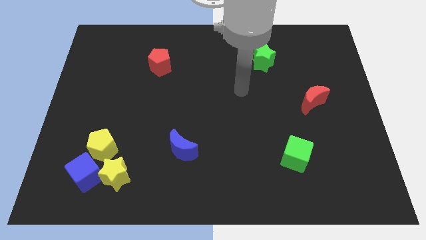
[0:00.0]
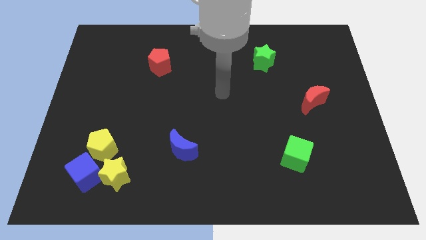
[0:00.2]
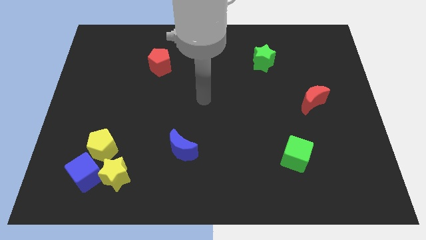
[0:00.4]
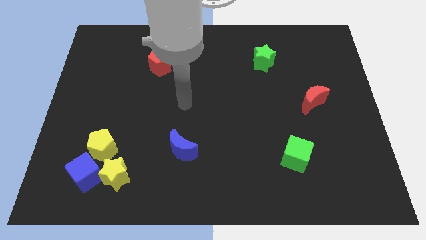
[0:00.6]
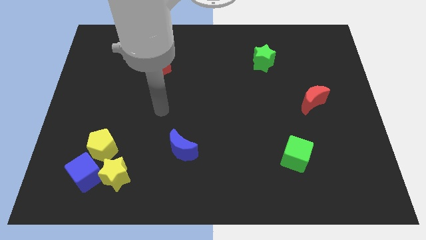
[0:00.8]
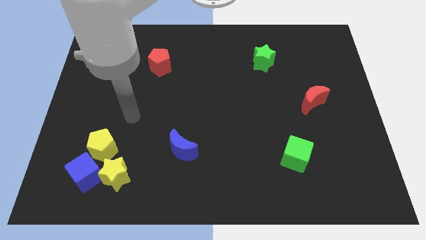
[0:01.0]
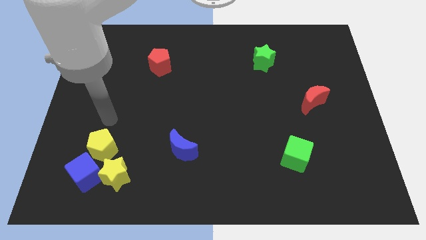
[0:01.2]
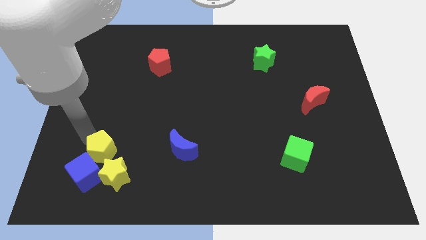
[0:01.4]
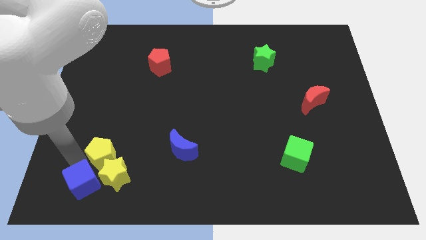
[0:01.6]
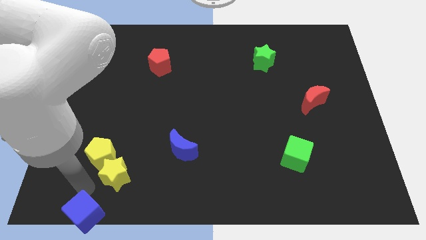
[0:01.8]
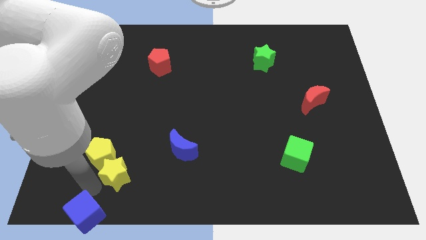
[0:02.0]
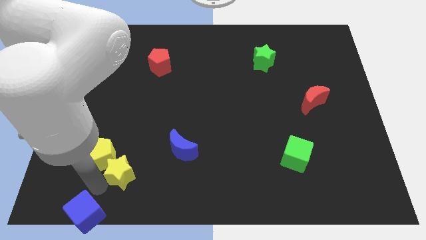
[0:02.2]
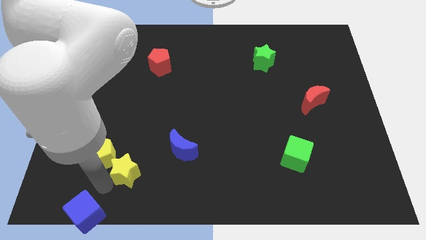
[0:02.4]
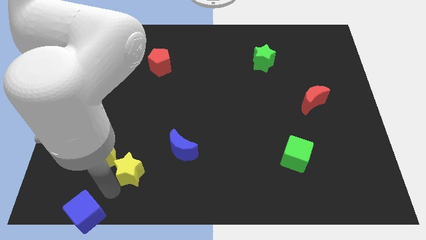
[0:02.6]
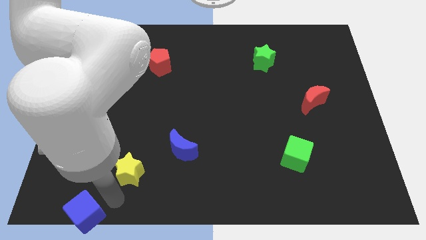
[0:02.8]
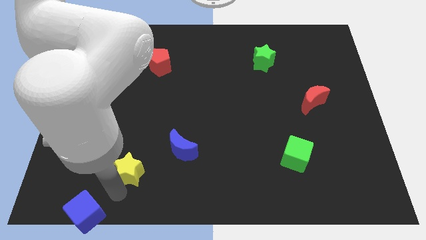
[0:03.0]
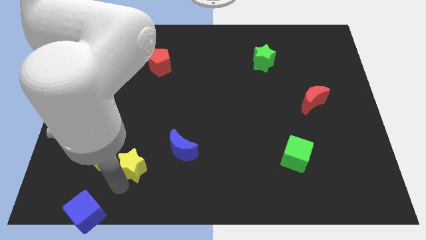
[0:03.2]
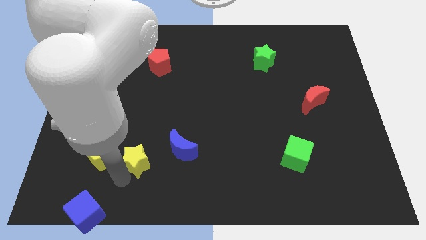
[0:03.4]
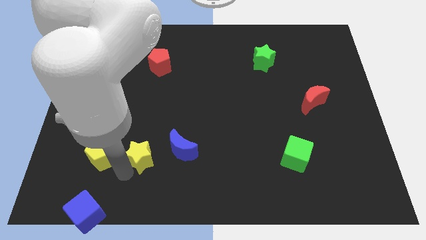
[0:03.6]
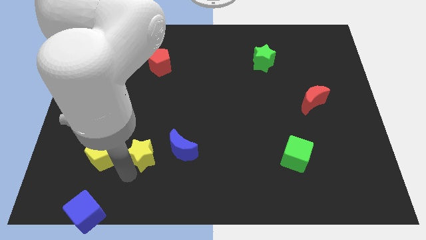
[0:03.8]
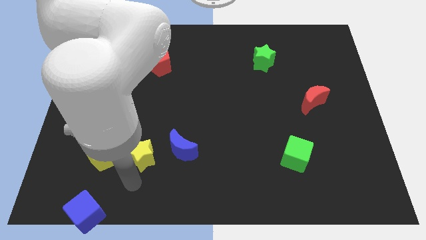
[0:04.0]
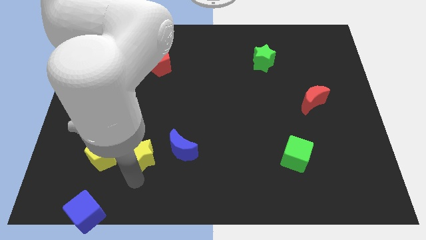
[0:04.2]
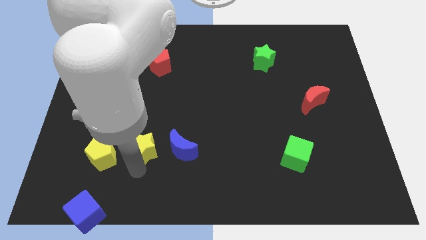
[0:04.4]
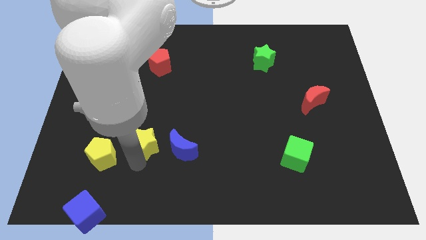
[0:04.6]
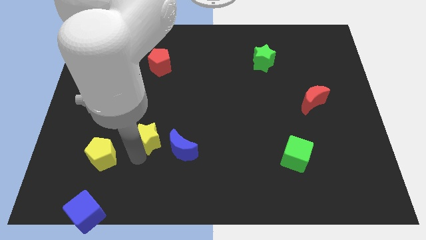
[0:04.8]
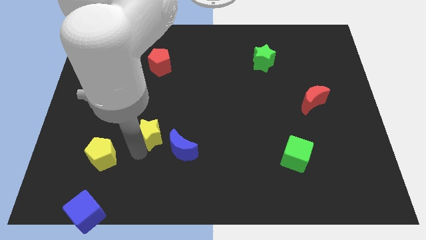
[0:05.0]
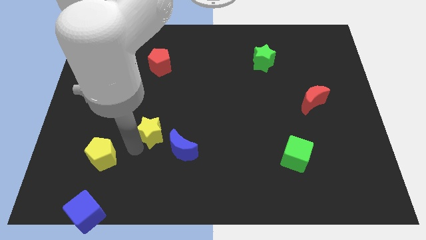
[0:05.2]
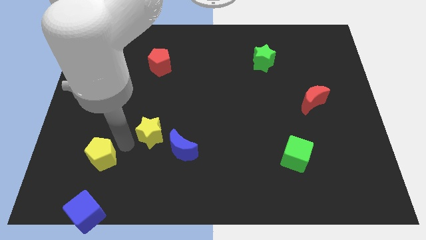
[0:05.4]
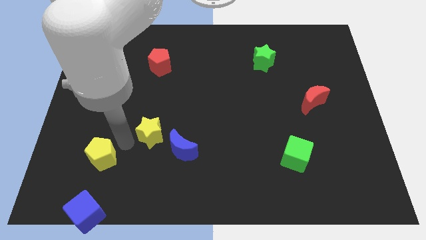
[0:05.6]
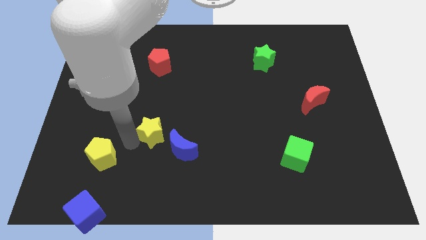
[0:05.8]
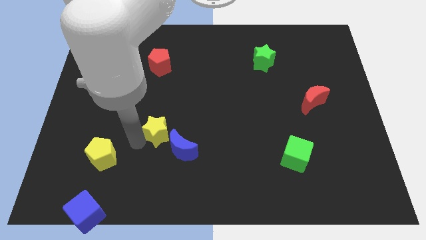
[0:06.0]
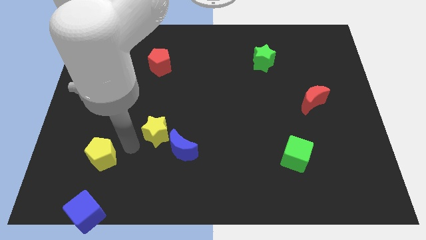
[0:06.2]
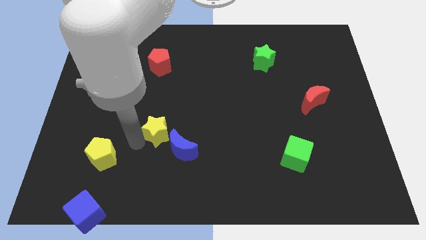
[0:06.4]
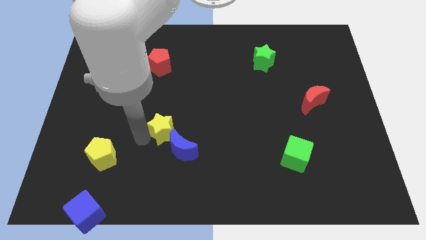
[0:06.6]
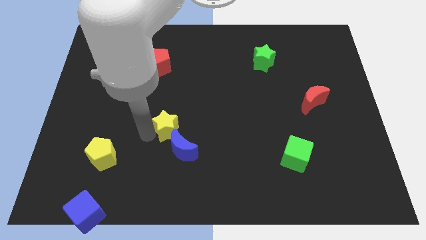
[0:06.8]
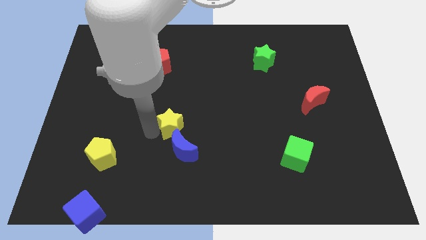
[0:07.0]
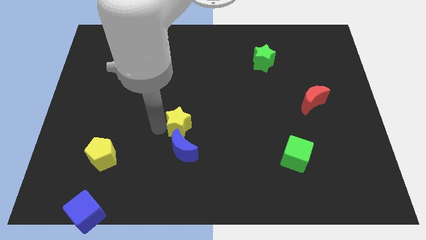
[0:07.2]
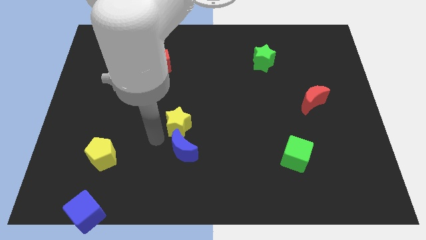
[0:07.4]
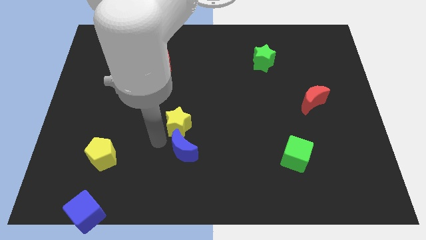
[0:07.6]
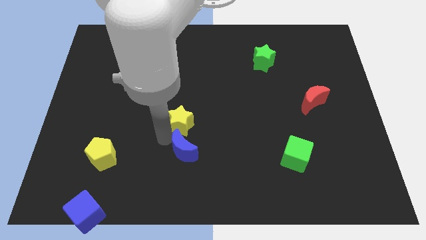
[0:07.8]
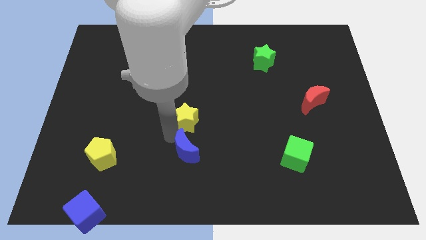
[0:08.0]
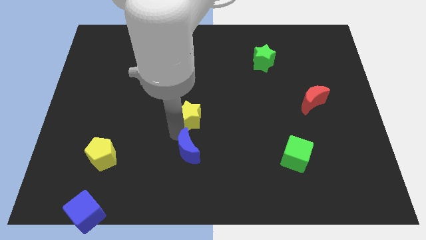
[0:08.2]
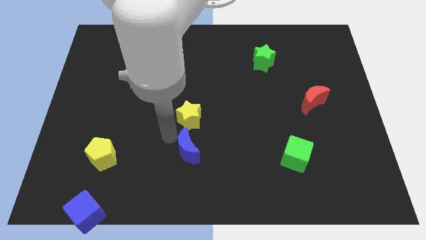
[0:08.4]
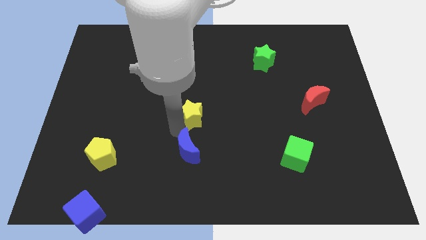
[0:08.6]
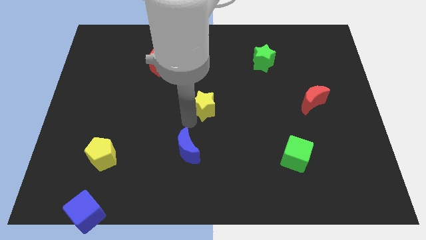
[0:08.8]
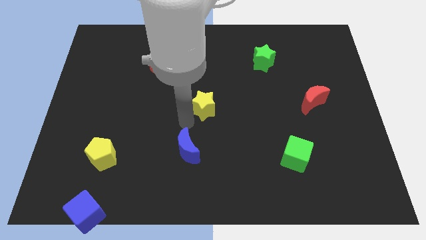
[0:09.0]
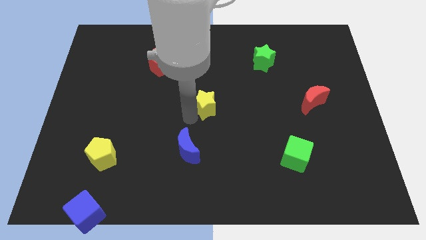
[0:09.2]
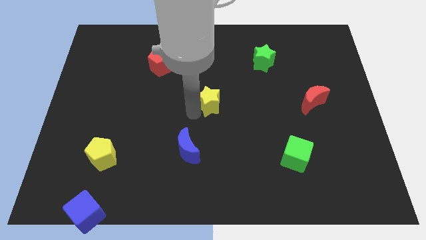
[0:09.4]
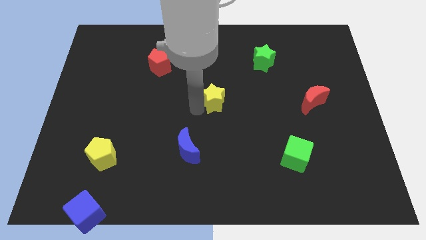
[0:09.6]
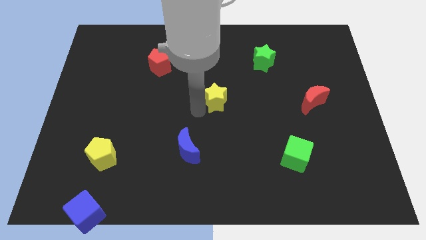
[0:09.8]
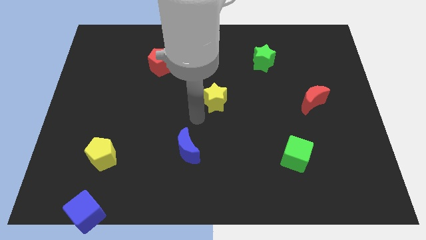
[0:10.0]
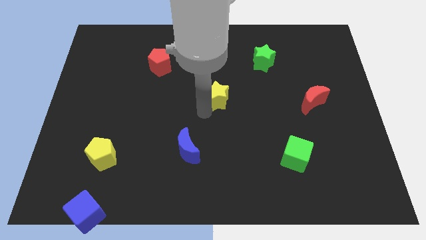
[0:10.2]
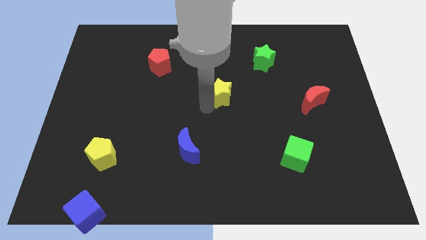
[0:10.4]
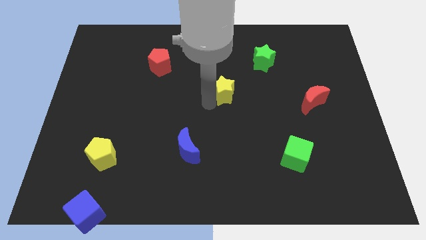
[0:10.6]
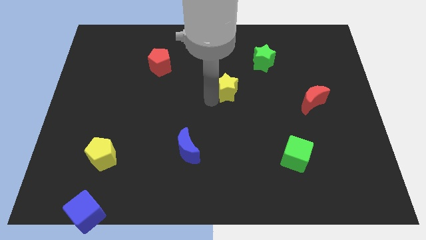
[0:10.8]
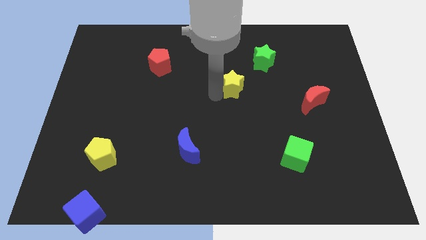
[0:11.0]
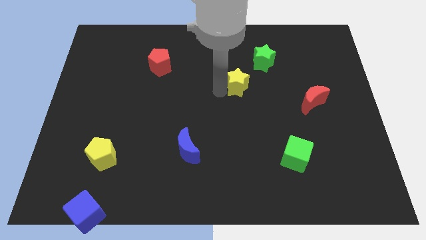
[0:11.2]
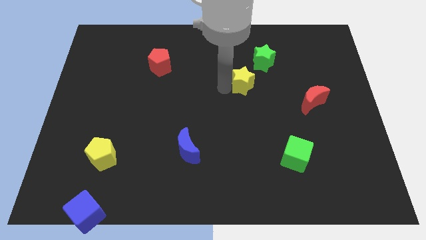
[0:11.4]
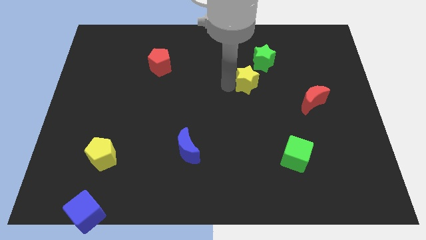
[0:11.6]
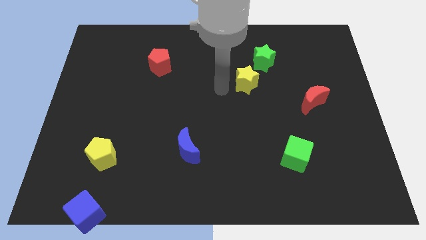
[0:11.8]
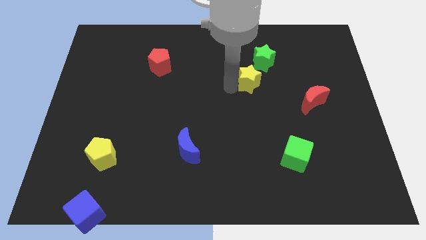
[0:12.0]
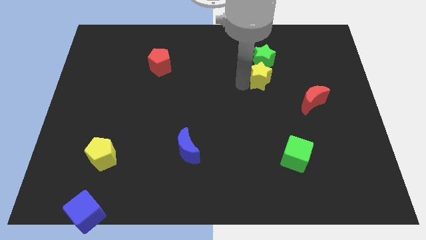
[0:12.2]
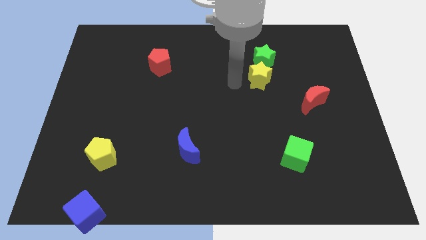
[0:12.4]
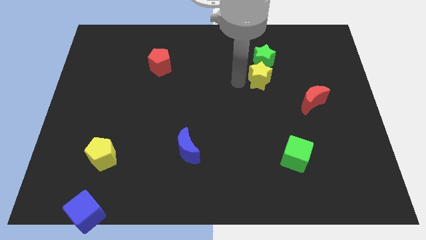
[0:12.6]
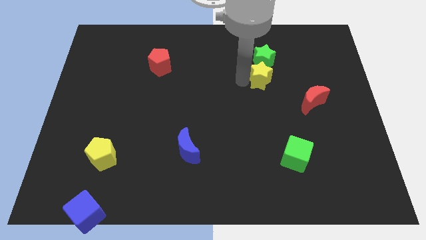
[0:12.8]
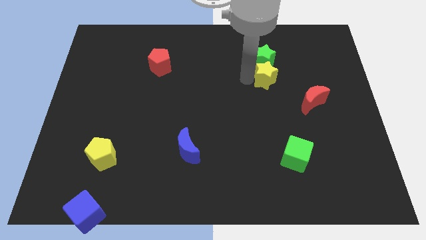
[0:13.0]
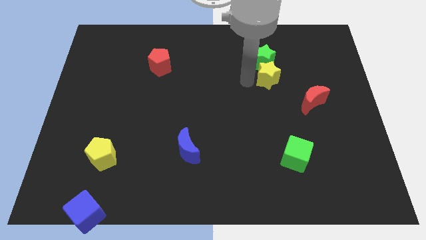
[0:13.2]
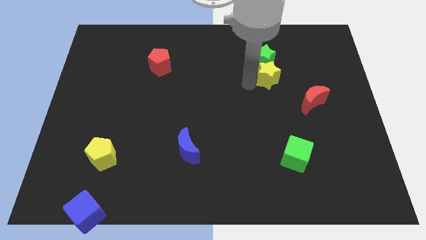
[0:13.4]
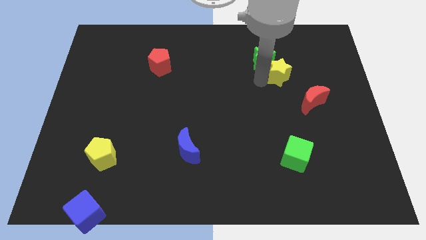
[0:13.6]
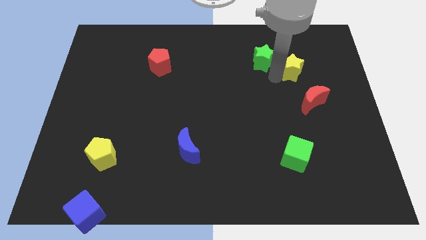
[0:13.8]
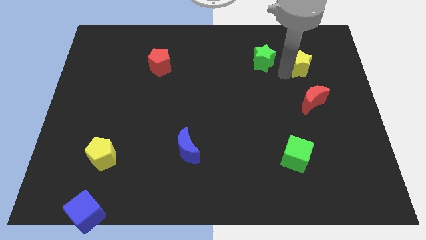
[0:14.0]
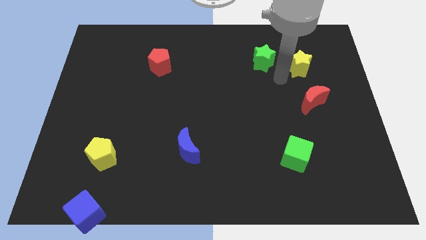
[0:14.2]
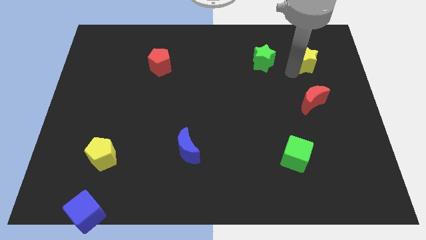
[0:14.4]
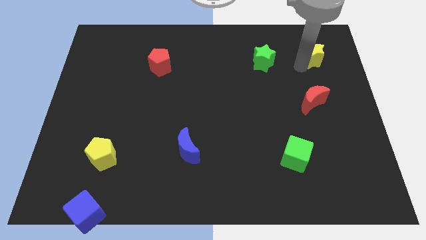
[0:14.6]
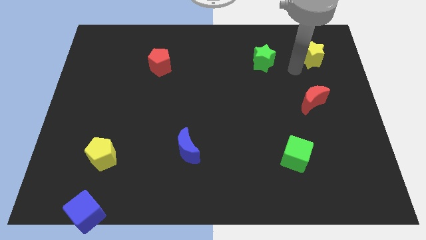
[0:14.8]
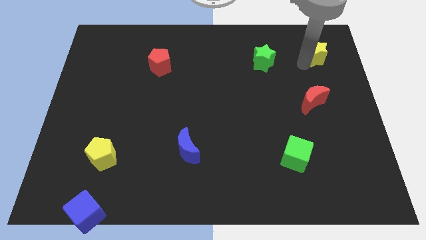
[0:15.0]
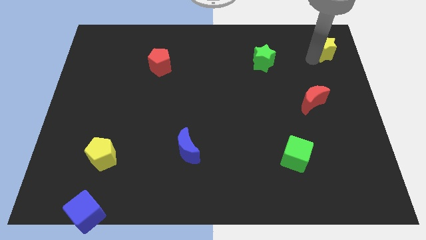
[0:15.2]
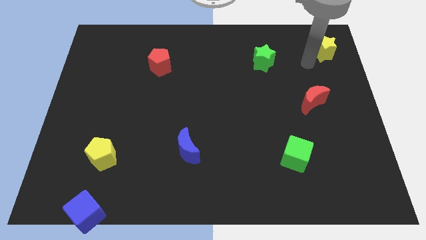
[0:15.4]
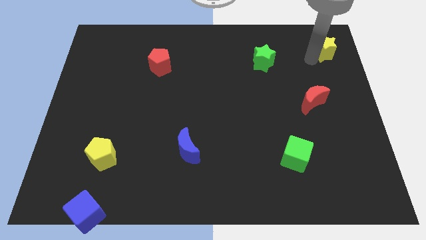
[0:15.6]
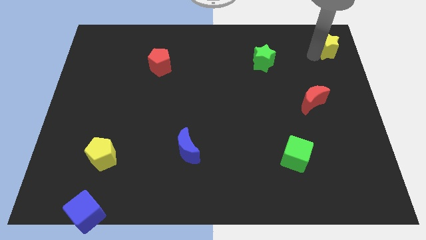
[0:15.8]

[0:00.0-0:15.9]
put the yellow star to the top right corner
